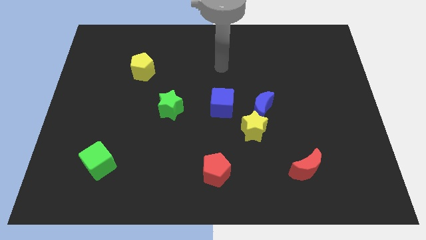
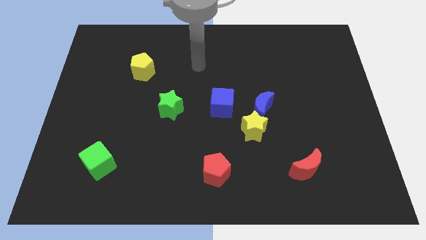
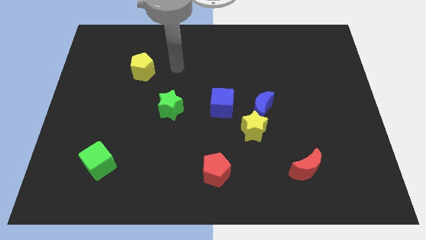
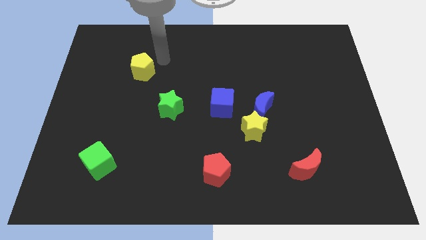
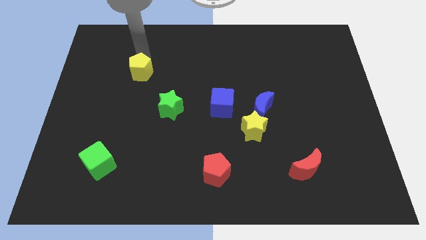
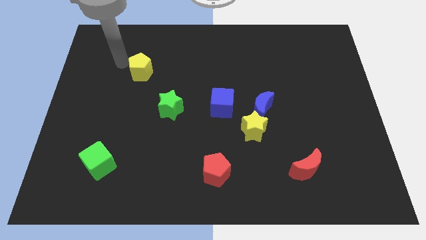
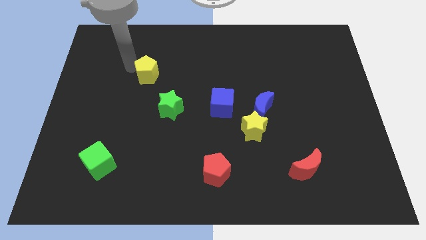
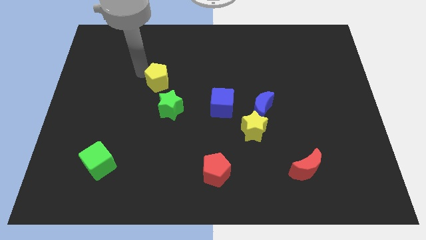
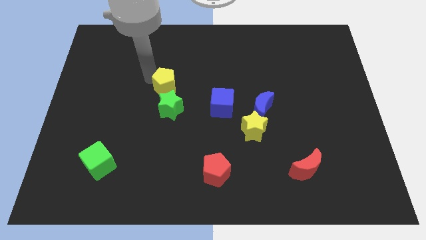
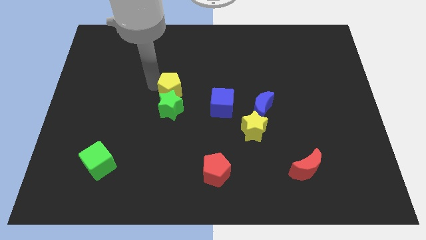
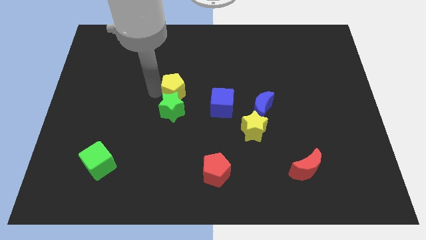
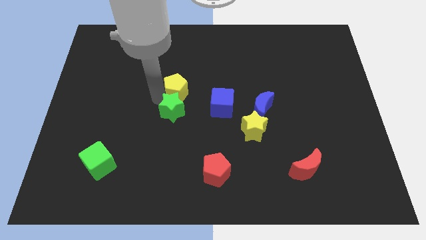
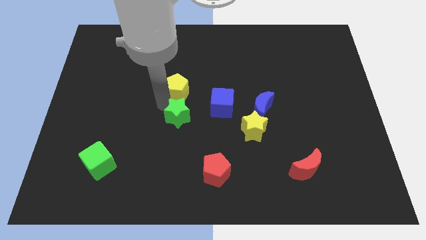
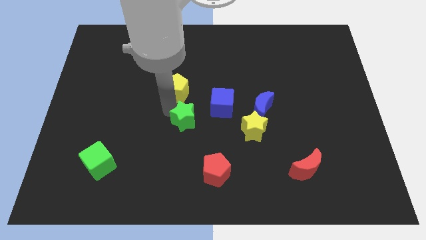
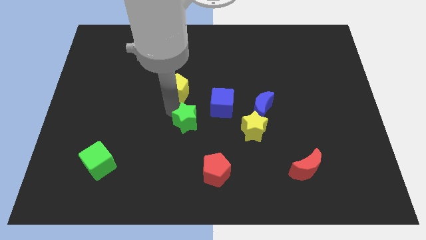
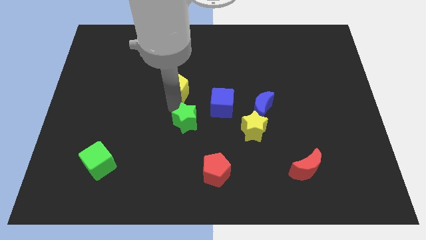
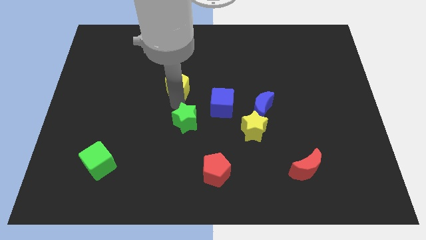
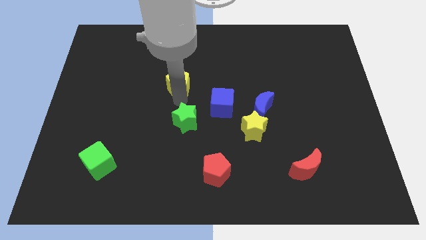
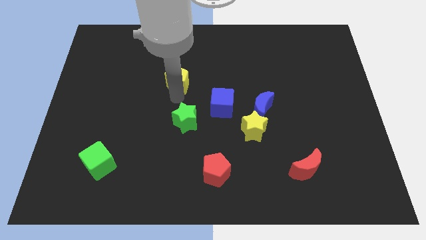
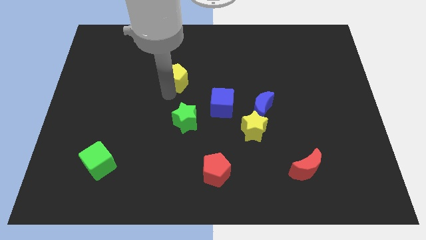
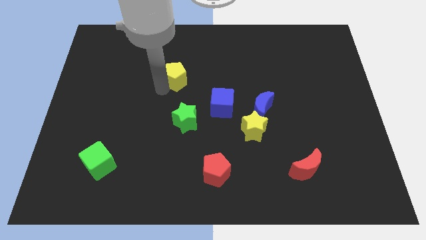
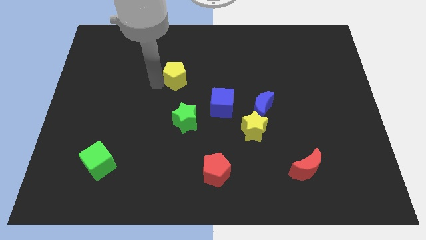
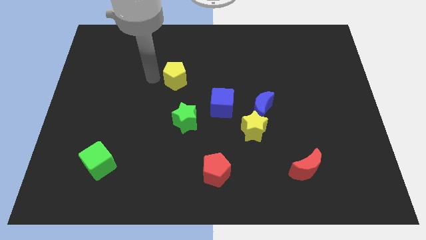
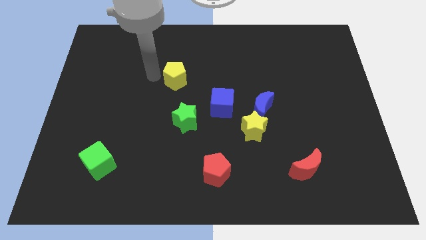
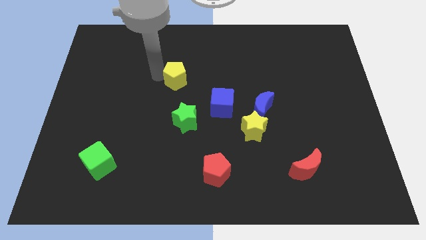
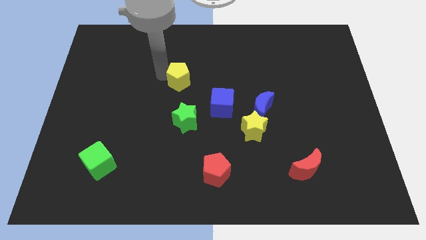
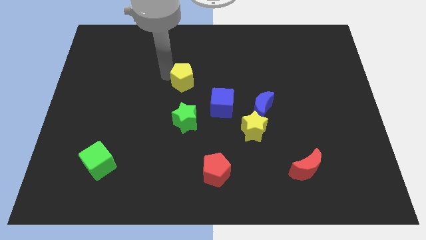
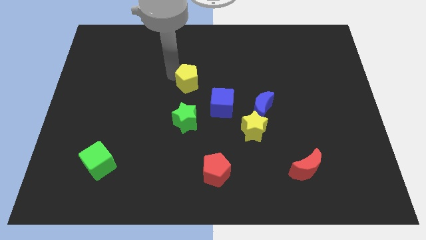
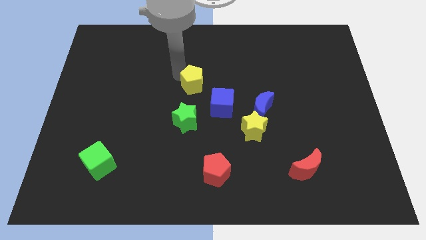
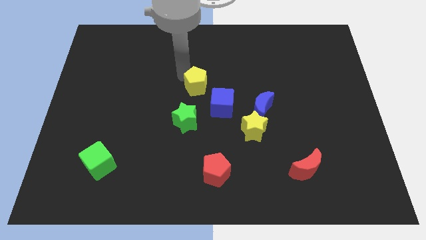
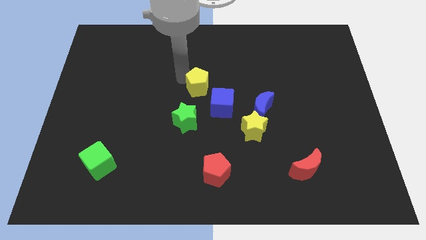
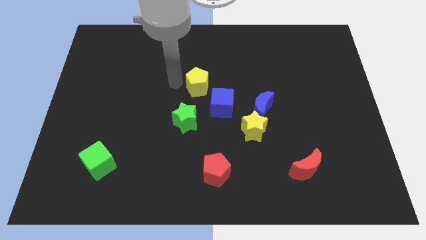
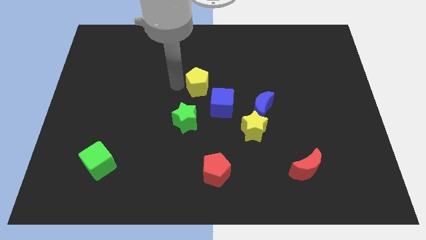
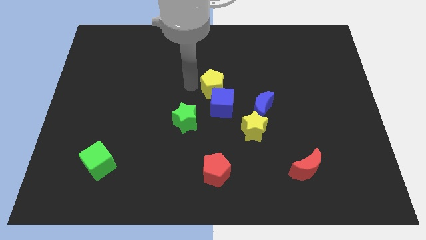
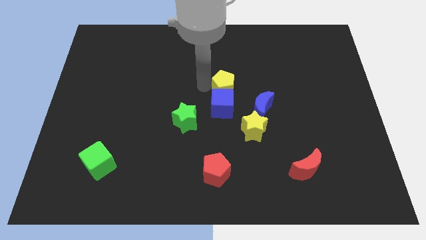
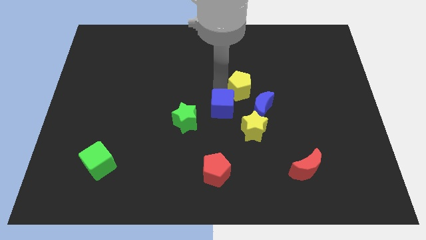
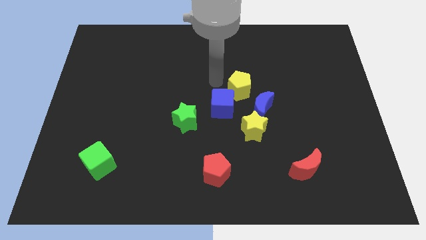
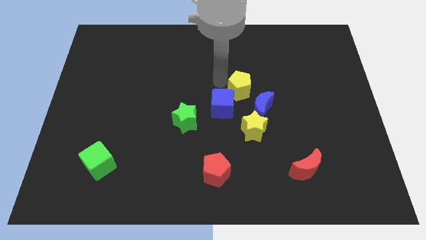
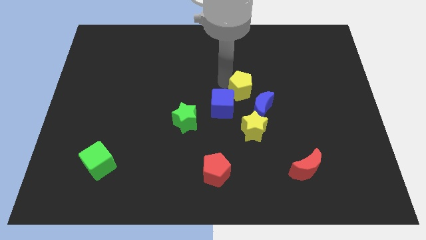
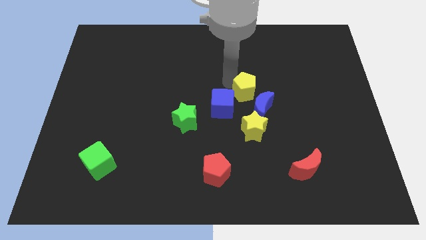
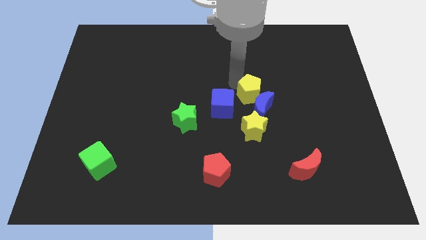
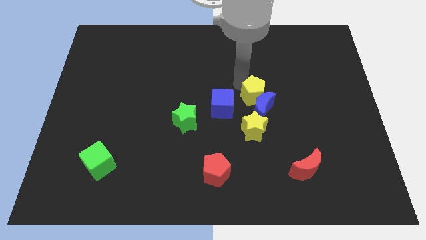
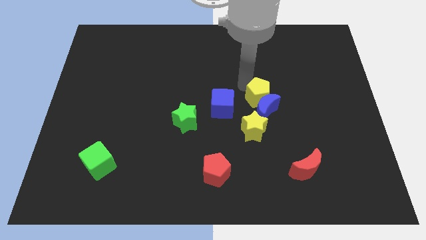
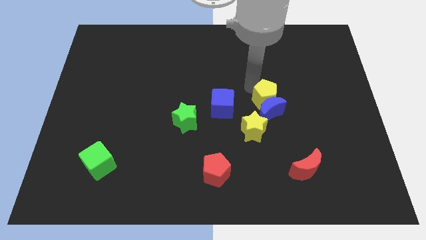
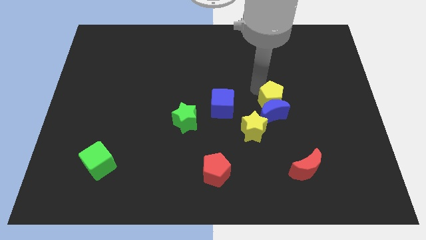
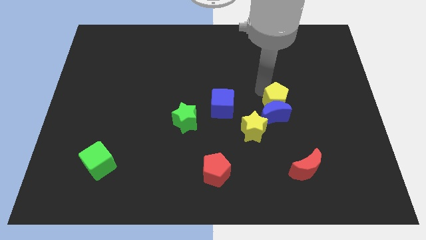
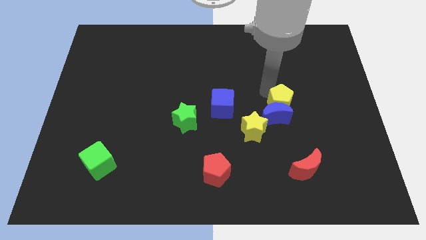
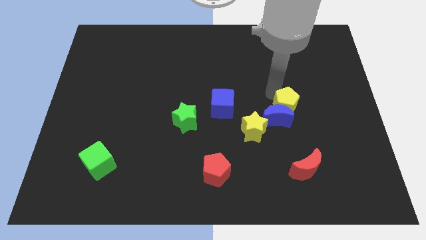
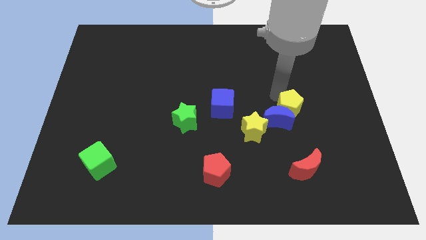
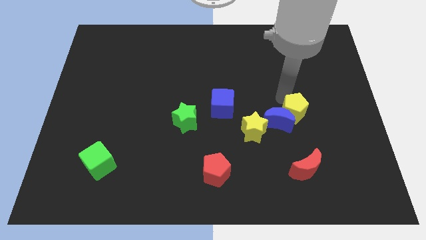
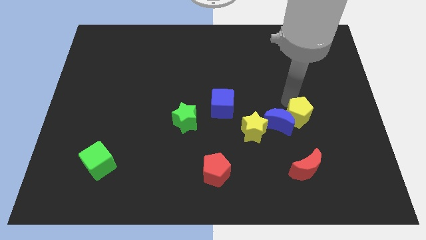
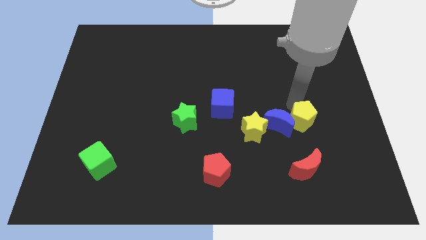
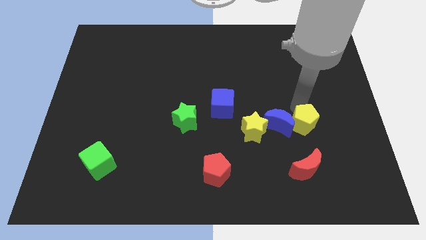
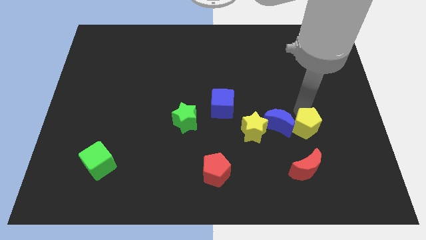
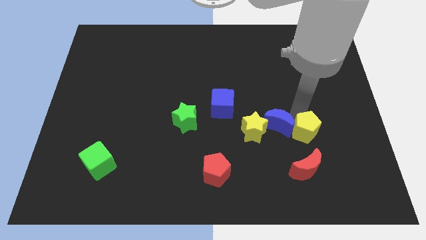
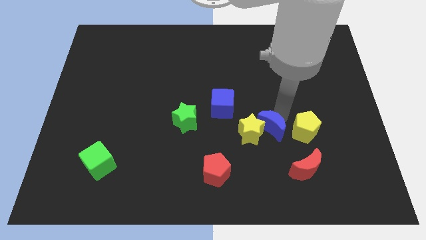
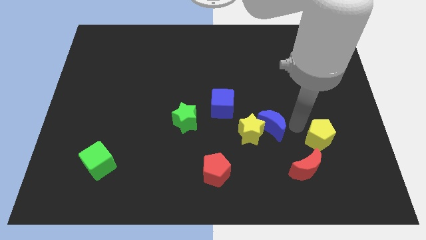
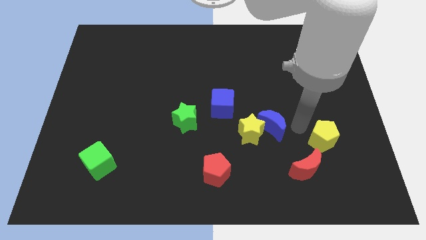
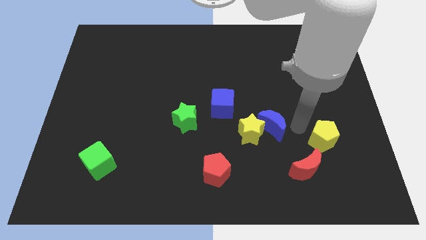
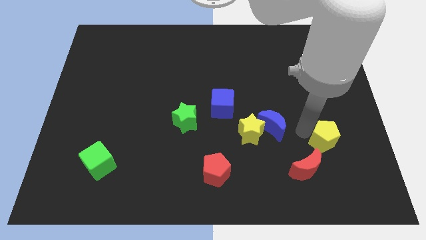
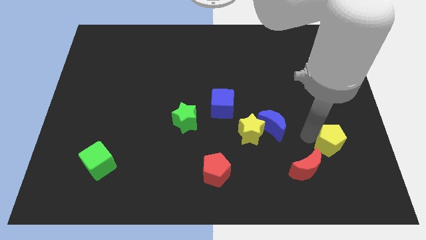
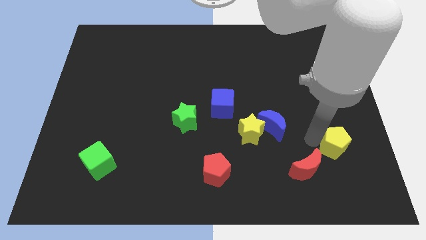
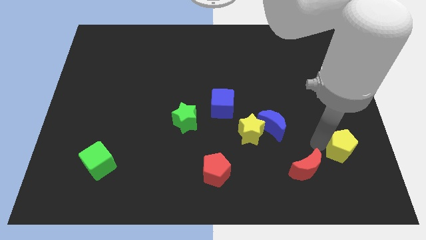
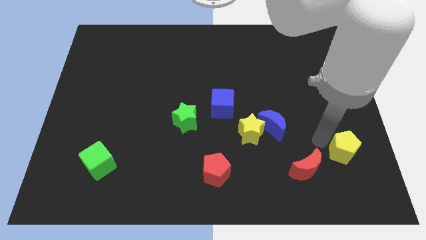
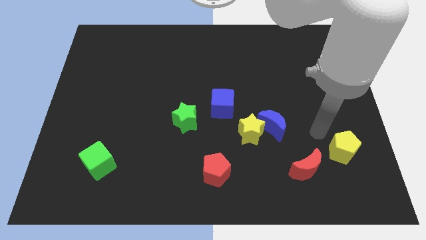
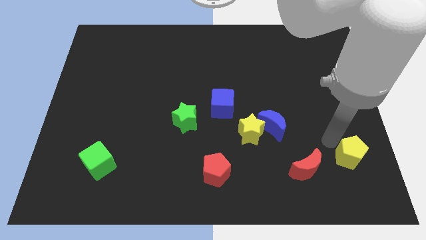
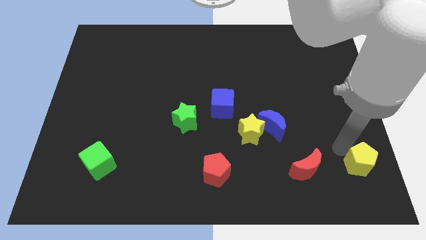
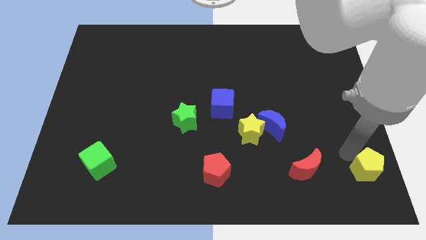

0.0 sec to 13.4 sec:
slide the yellow pentagon to the bottom right
